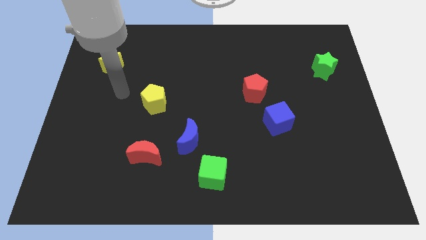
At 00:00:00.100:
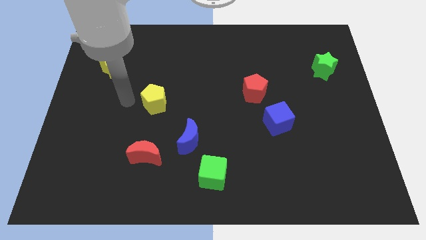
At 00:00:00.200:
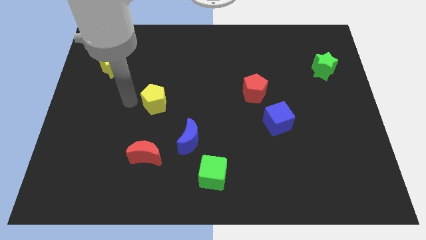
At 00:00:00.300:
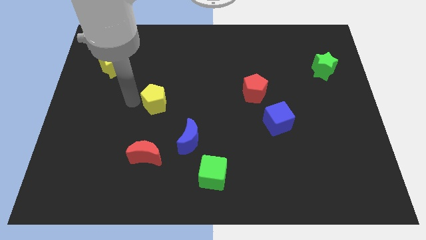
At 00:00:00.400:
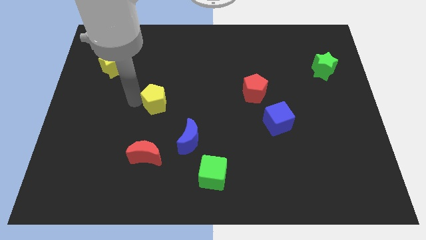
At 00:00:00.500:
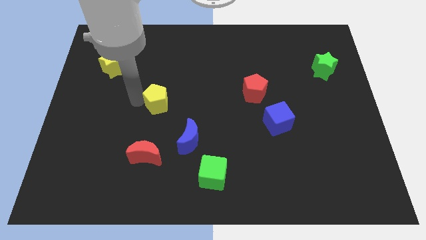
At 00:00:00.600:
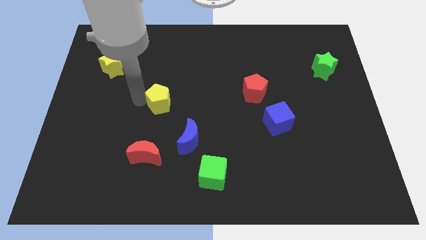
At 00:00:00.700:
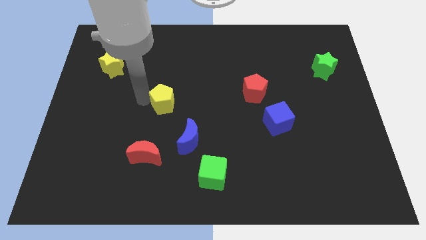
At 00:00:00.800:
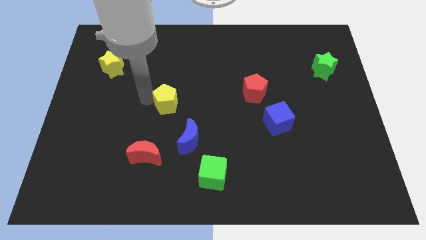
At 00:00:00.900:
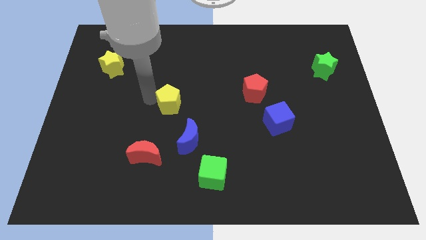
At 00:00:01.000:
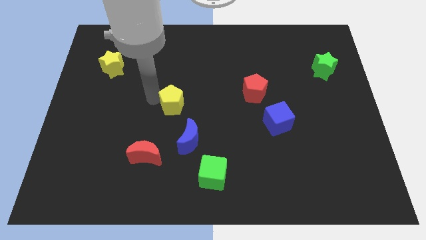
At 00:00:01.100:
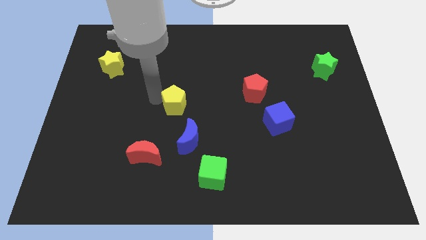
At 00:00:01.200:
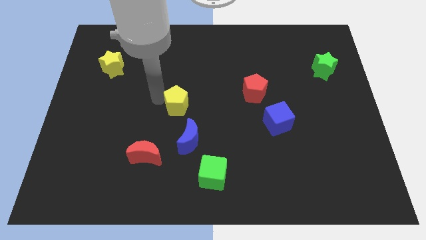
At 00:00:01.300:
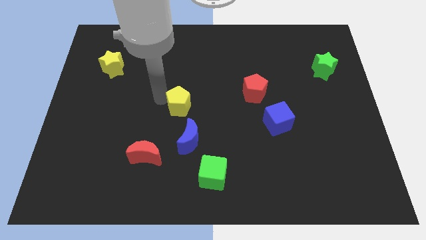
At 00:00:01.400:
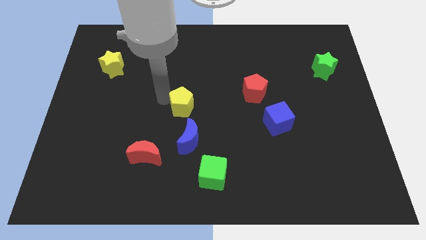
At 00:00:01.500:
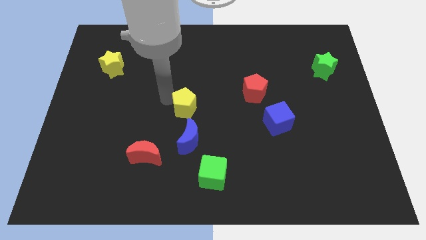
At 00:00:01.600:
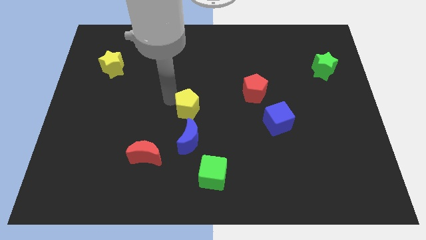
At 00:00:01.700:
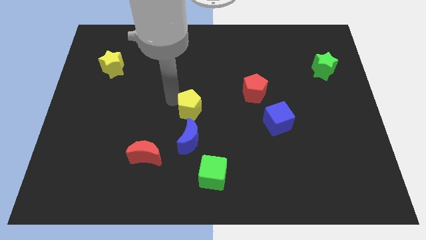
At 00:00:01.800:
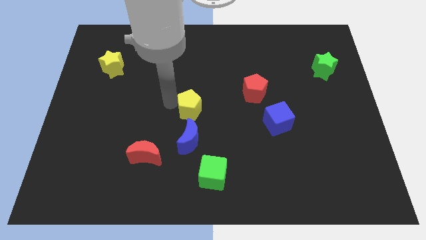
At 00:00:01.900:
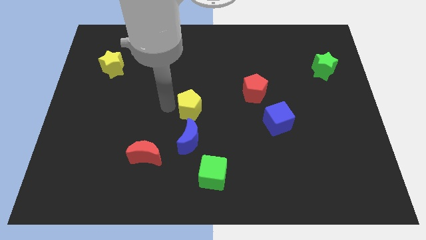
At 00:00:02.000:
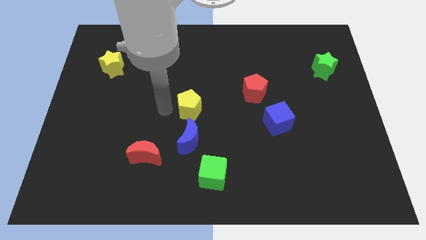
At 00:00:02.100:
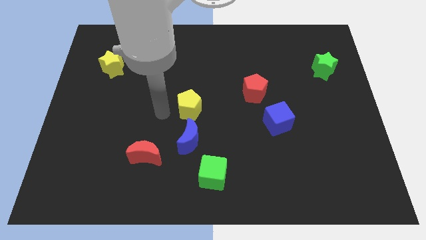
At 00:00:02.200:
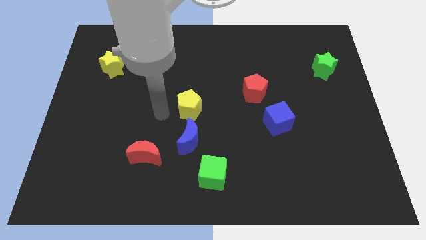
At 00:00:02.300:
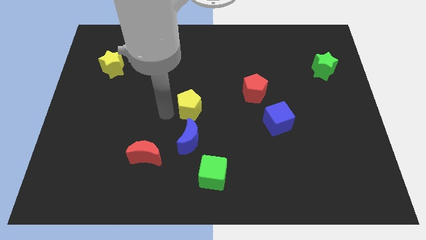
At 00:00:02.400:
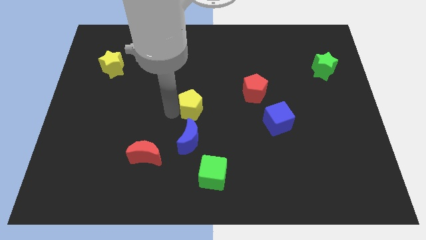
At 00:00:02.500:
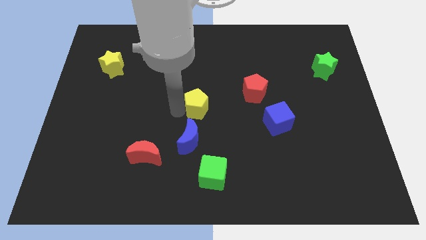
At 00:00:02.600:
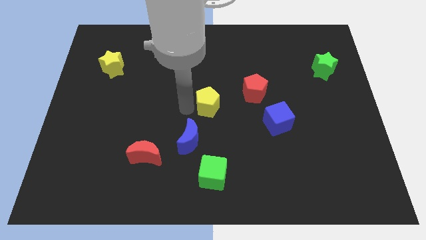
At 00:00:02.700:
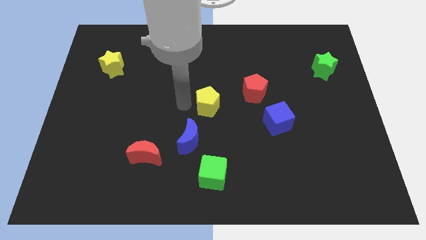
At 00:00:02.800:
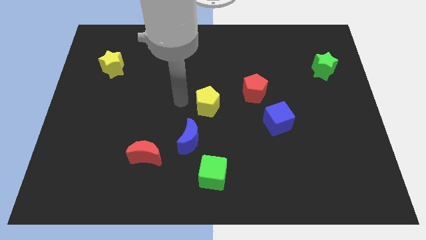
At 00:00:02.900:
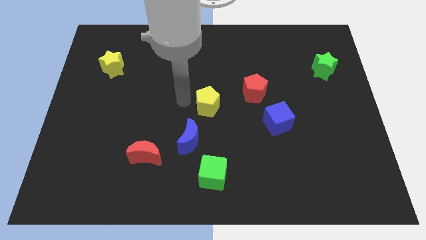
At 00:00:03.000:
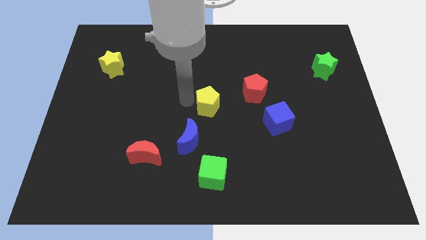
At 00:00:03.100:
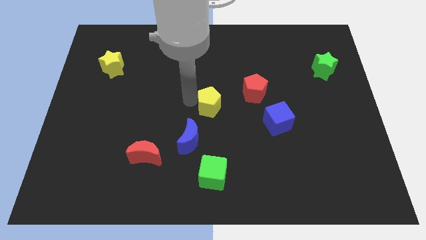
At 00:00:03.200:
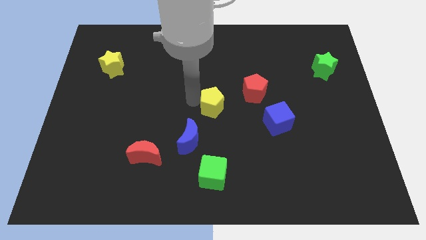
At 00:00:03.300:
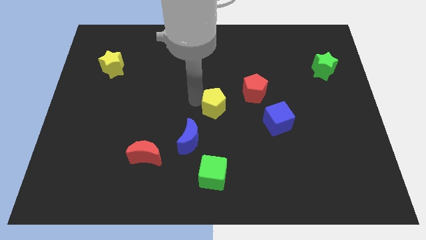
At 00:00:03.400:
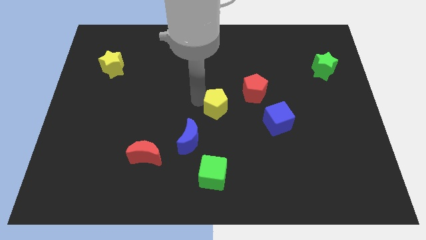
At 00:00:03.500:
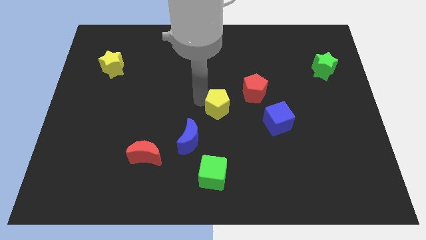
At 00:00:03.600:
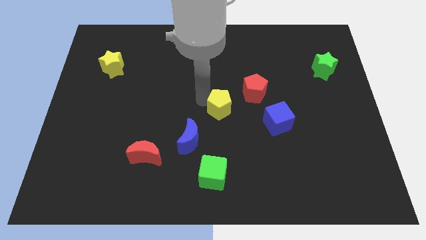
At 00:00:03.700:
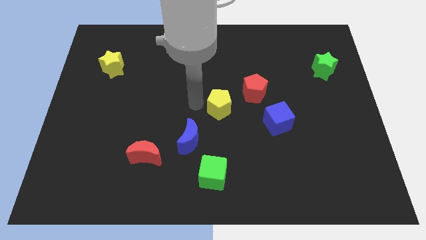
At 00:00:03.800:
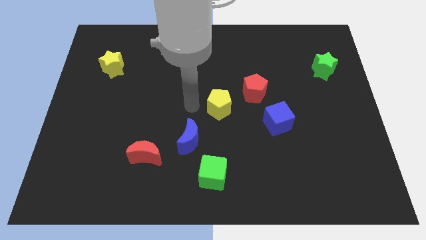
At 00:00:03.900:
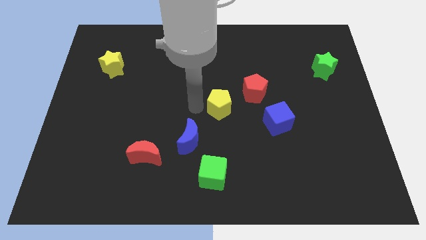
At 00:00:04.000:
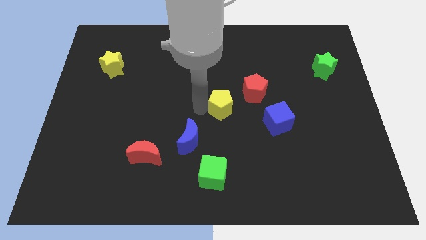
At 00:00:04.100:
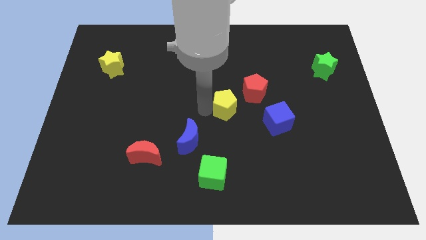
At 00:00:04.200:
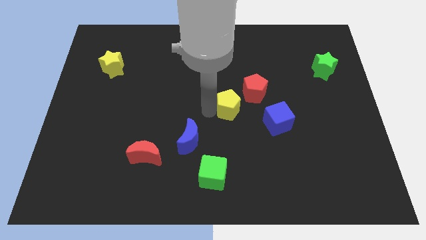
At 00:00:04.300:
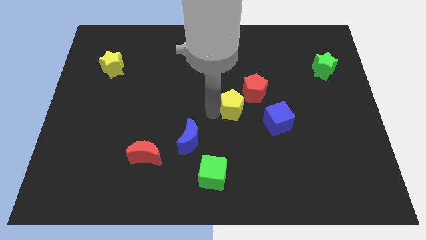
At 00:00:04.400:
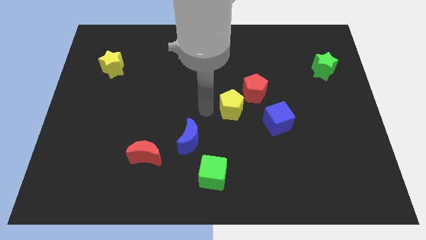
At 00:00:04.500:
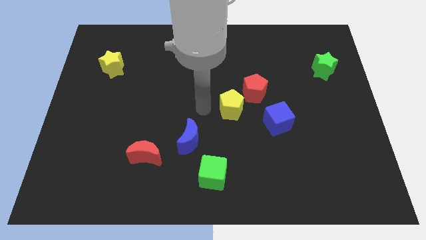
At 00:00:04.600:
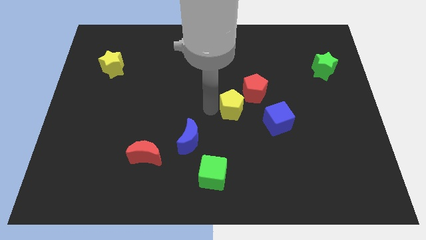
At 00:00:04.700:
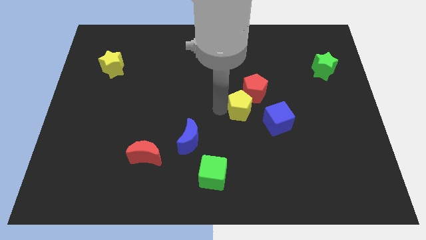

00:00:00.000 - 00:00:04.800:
slide the yellow pentagon right

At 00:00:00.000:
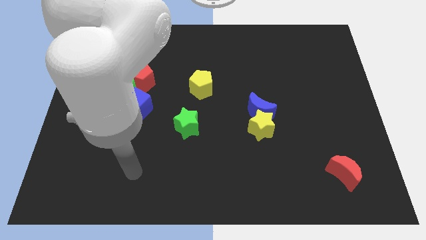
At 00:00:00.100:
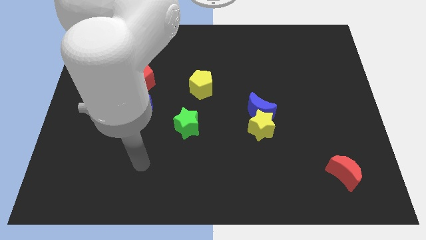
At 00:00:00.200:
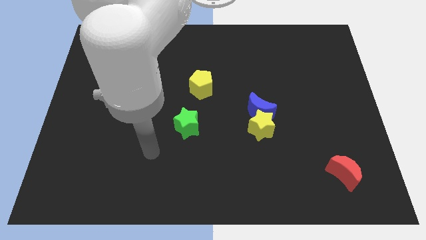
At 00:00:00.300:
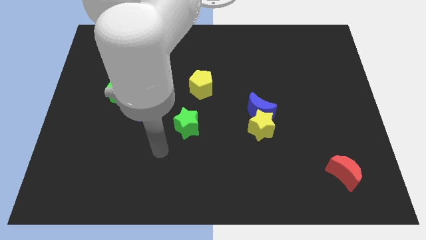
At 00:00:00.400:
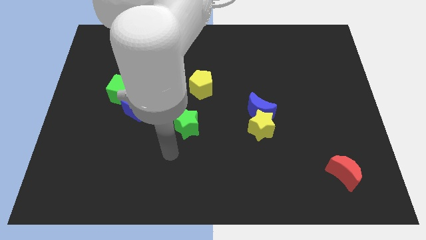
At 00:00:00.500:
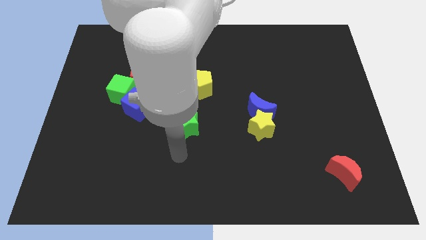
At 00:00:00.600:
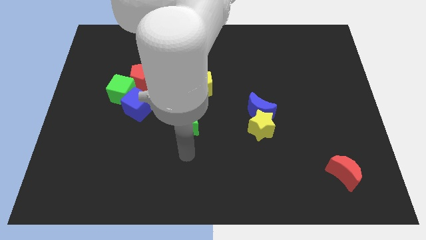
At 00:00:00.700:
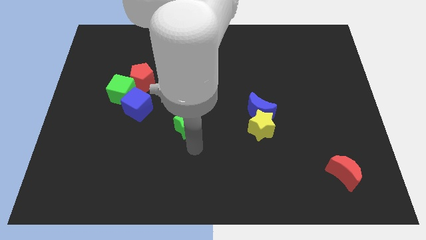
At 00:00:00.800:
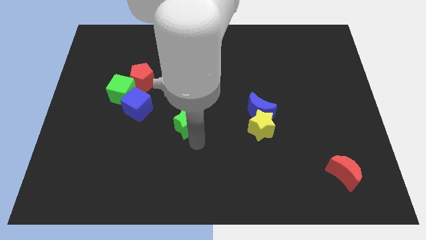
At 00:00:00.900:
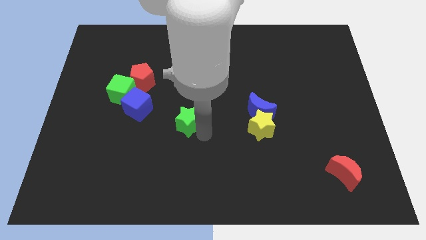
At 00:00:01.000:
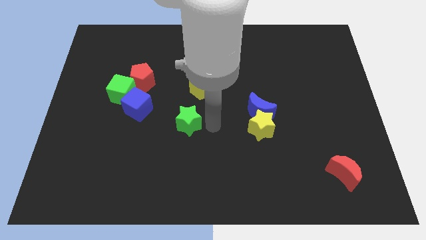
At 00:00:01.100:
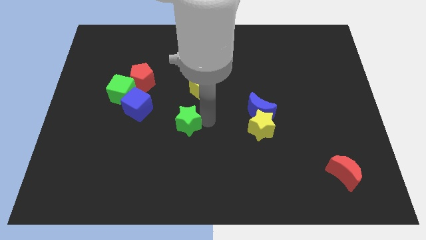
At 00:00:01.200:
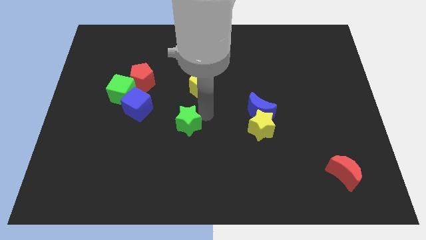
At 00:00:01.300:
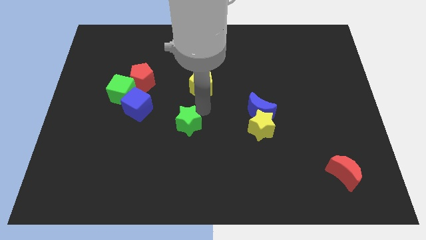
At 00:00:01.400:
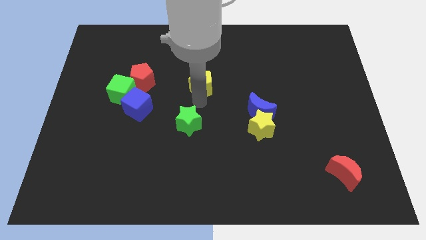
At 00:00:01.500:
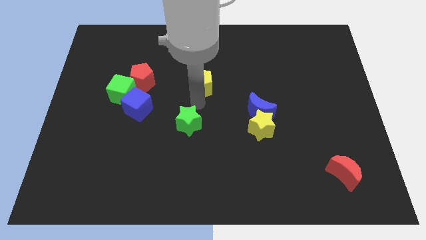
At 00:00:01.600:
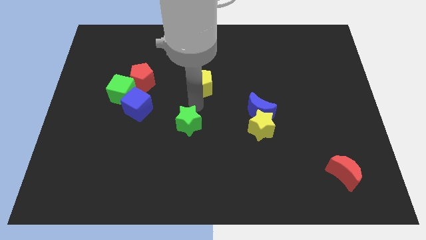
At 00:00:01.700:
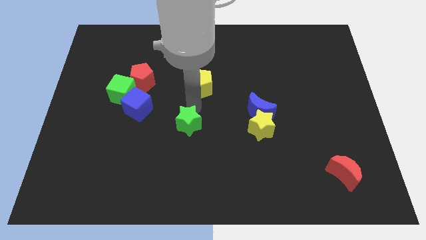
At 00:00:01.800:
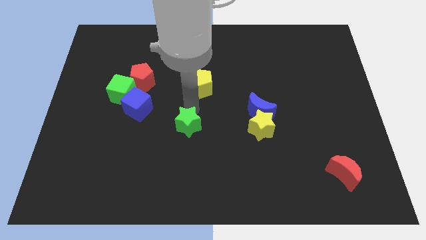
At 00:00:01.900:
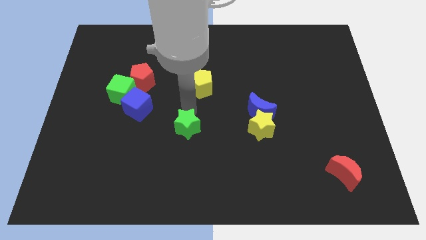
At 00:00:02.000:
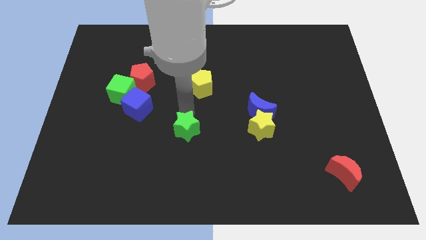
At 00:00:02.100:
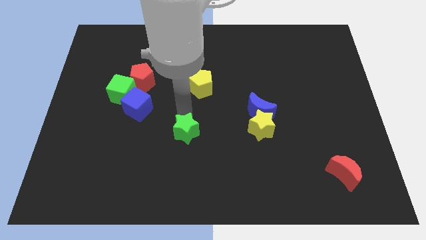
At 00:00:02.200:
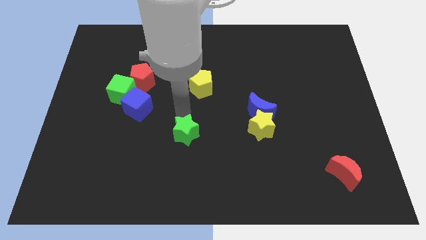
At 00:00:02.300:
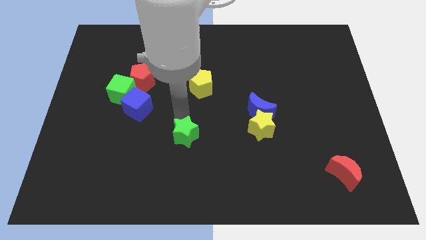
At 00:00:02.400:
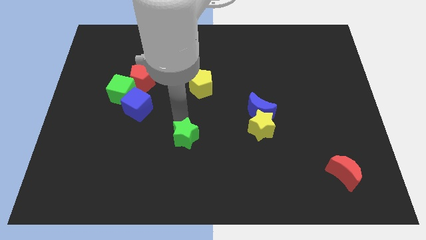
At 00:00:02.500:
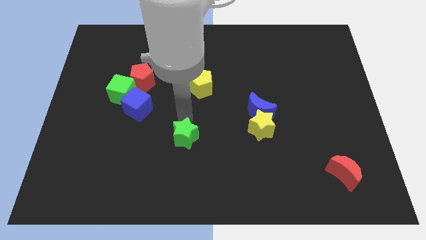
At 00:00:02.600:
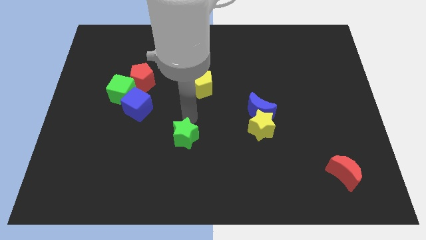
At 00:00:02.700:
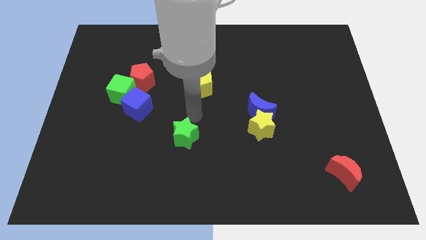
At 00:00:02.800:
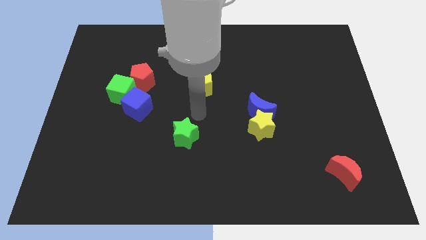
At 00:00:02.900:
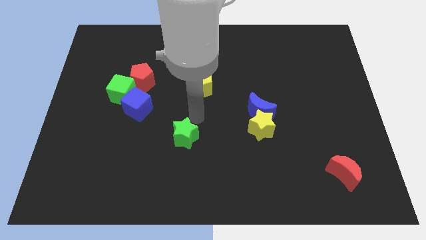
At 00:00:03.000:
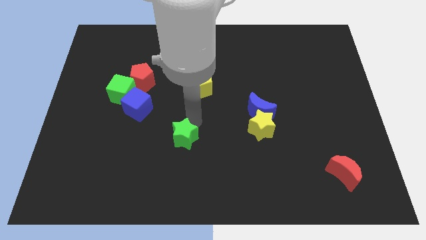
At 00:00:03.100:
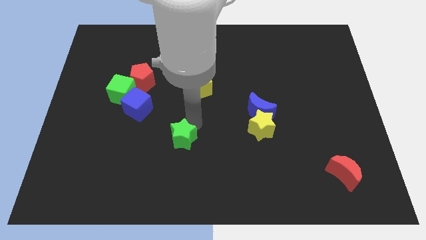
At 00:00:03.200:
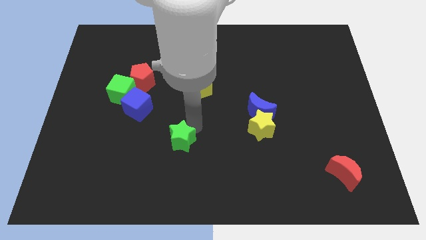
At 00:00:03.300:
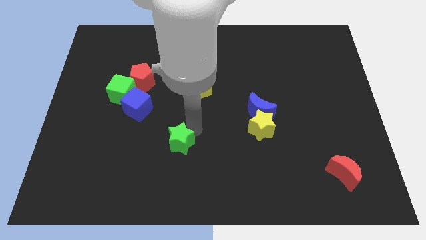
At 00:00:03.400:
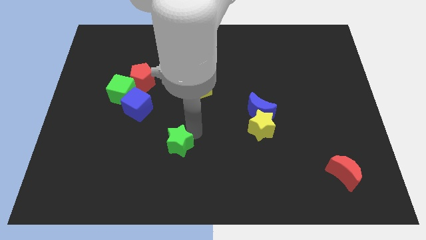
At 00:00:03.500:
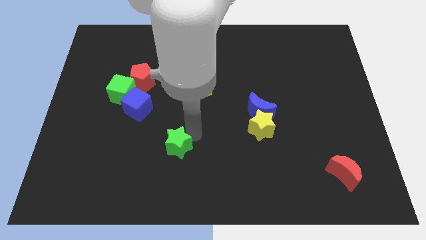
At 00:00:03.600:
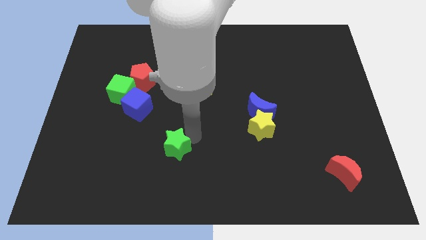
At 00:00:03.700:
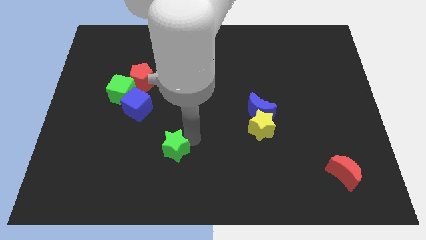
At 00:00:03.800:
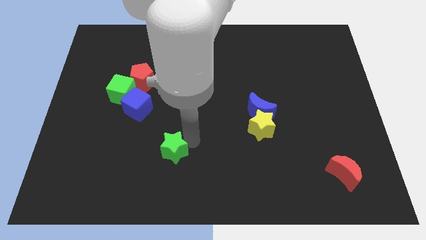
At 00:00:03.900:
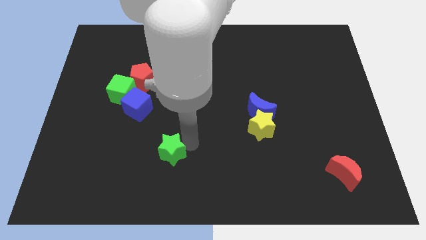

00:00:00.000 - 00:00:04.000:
push the green star slightly diagonally down and left
